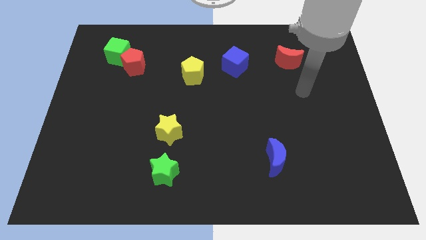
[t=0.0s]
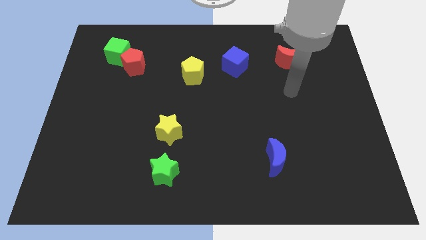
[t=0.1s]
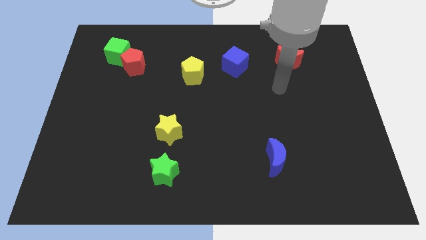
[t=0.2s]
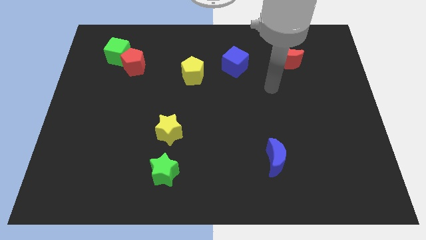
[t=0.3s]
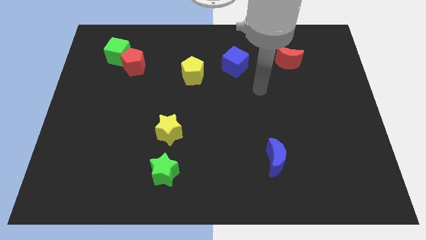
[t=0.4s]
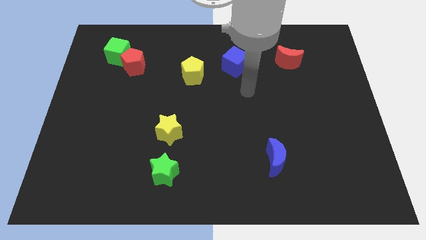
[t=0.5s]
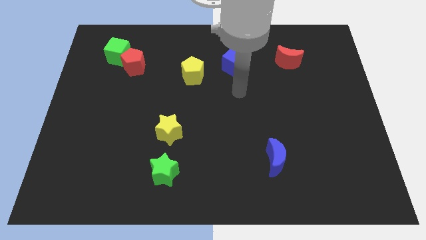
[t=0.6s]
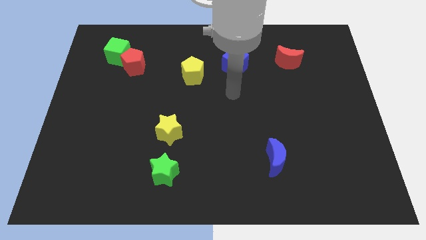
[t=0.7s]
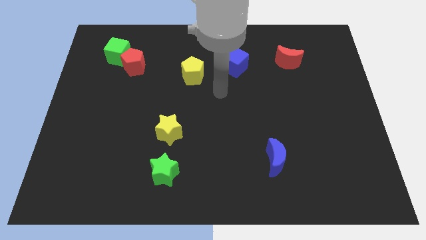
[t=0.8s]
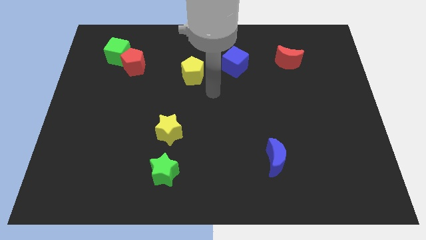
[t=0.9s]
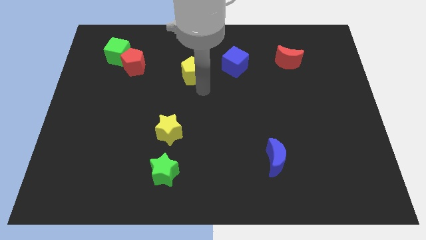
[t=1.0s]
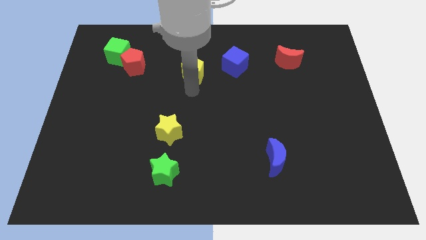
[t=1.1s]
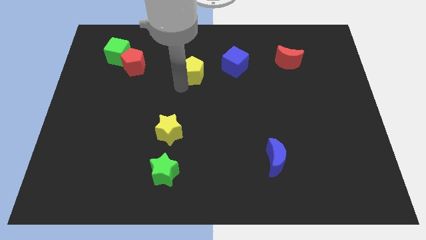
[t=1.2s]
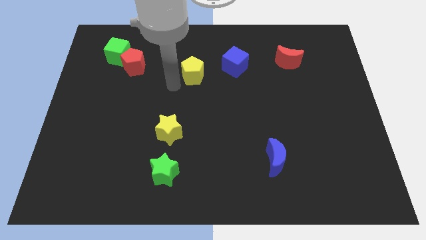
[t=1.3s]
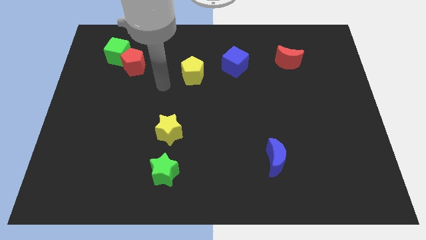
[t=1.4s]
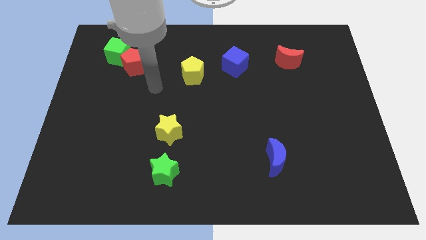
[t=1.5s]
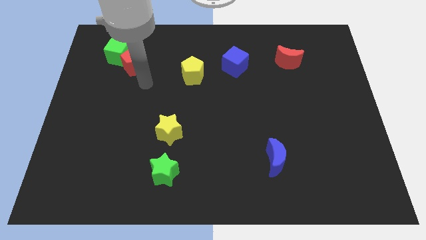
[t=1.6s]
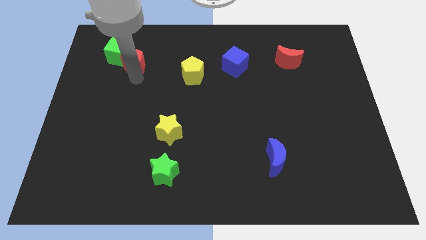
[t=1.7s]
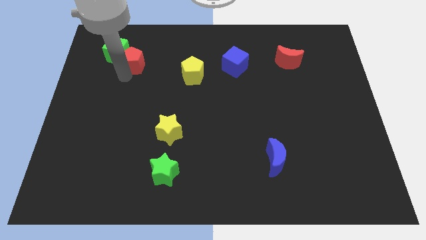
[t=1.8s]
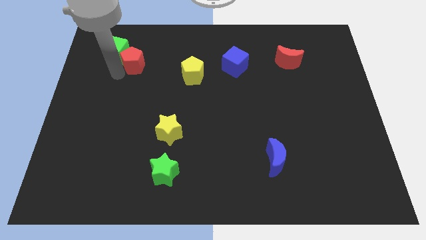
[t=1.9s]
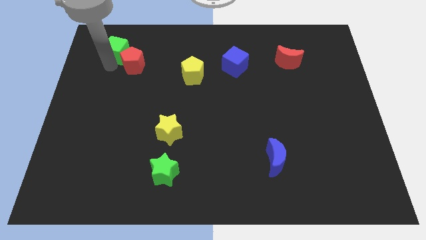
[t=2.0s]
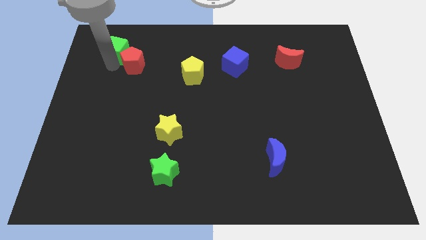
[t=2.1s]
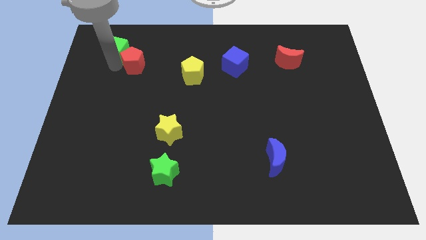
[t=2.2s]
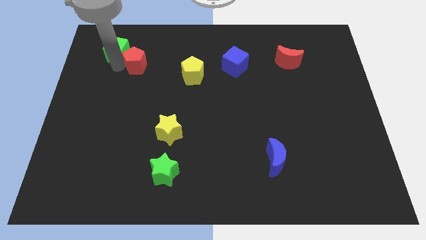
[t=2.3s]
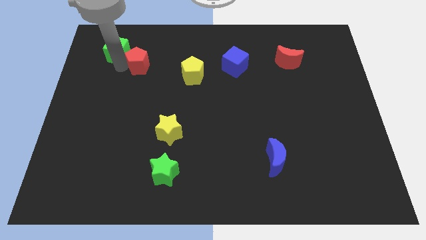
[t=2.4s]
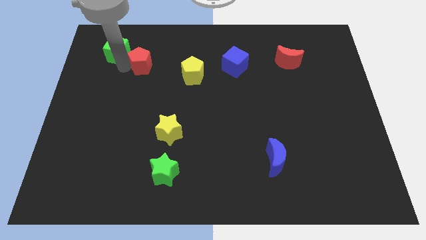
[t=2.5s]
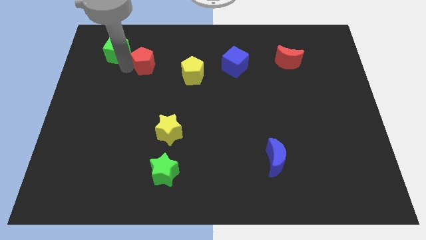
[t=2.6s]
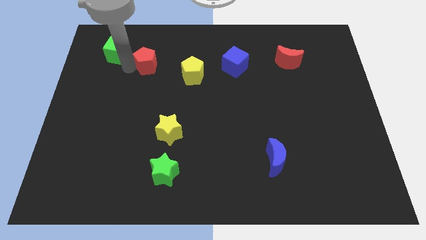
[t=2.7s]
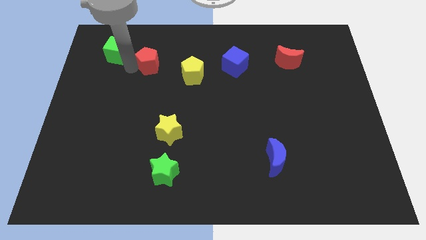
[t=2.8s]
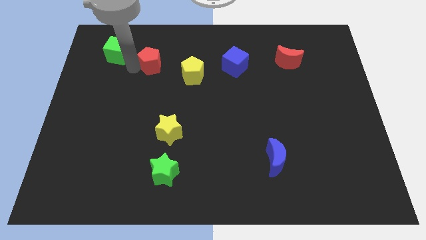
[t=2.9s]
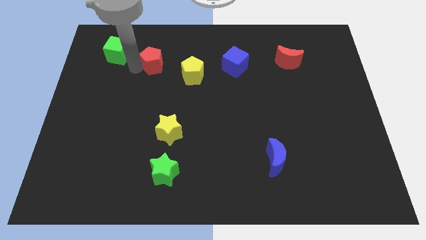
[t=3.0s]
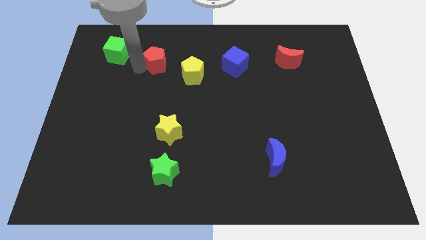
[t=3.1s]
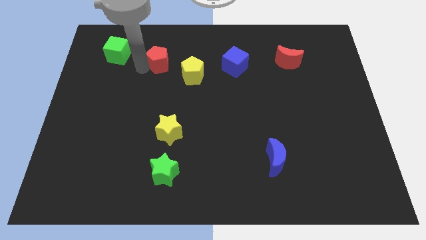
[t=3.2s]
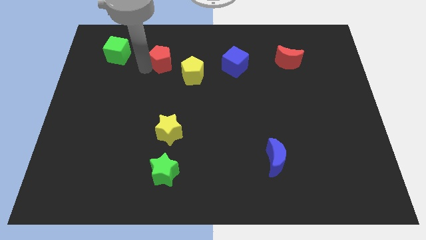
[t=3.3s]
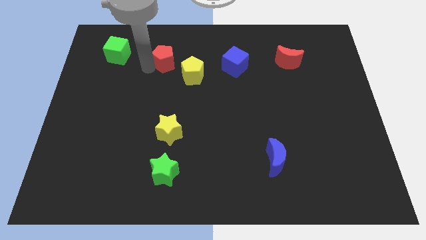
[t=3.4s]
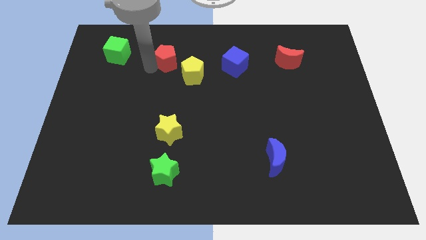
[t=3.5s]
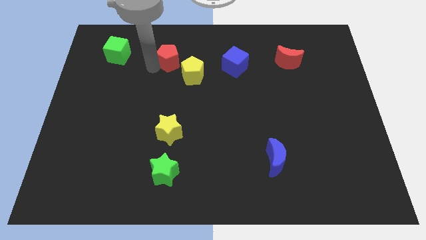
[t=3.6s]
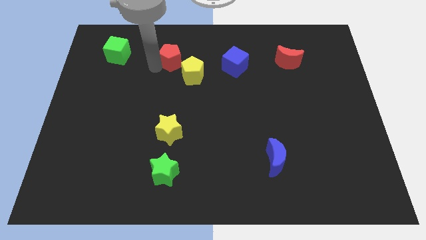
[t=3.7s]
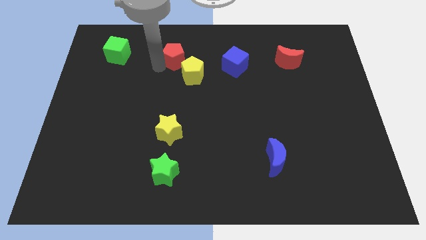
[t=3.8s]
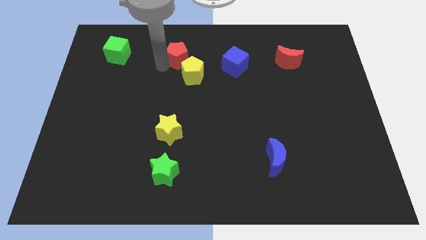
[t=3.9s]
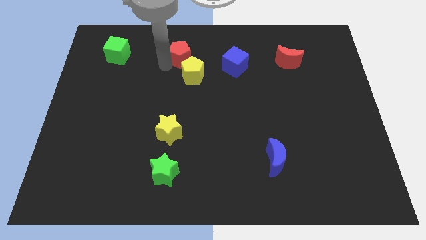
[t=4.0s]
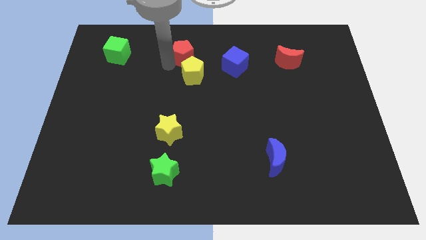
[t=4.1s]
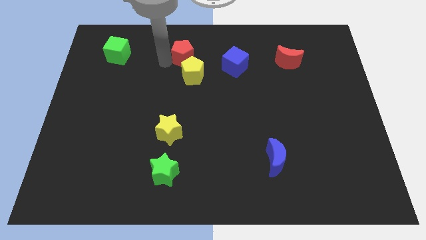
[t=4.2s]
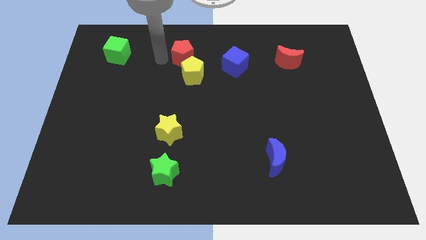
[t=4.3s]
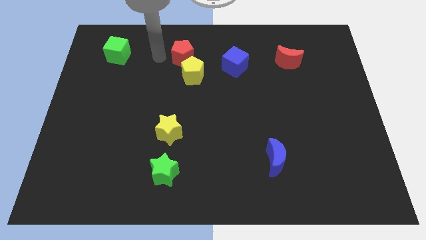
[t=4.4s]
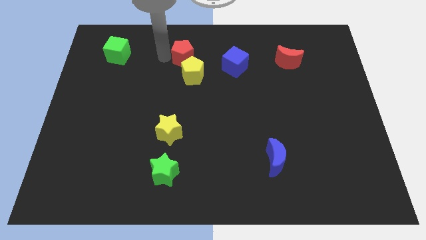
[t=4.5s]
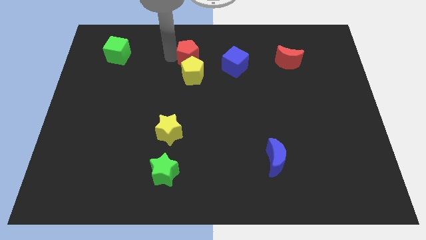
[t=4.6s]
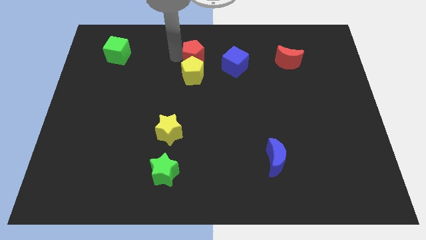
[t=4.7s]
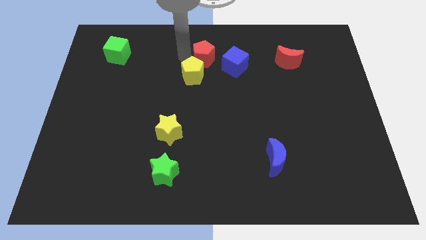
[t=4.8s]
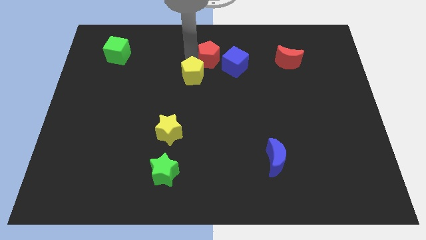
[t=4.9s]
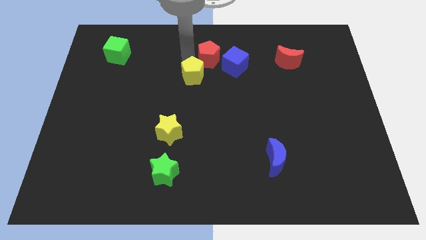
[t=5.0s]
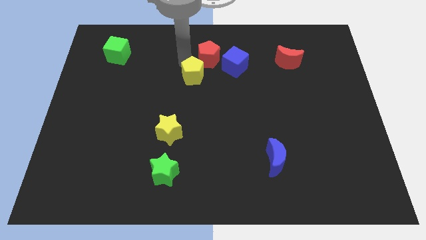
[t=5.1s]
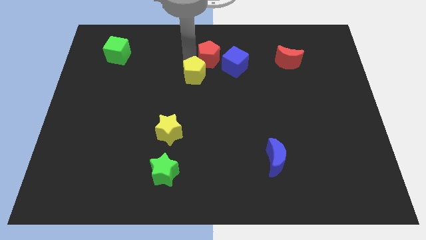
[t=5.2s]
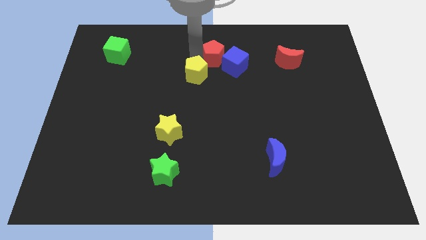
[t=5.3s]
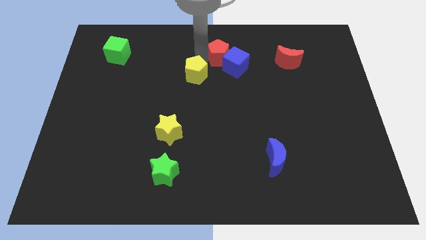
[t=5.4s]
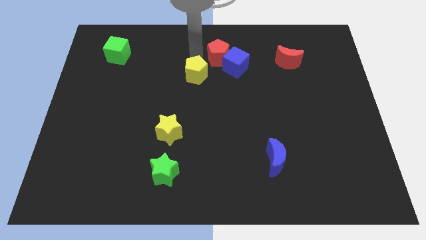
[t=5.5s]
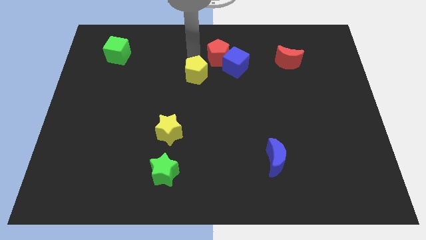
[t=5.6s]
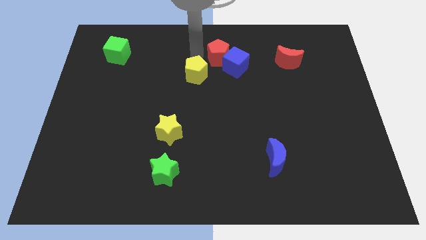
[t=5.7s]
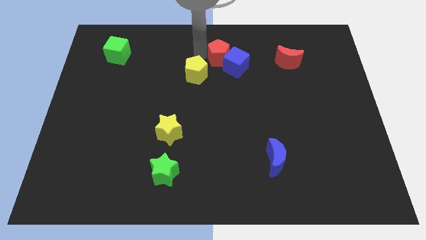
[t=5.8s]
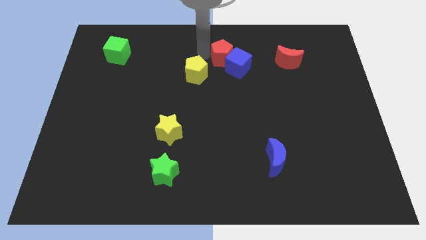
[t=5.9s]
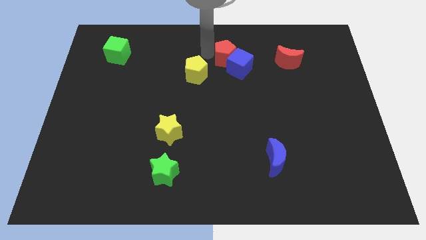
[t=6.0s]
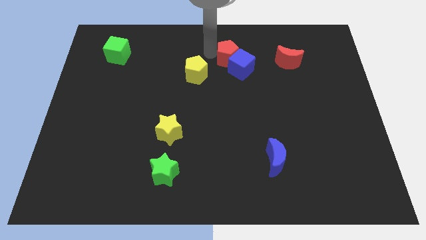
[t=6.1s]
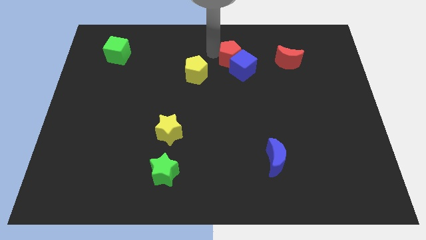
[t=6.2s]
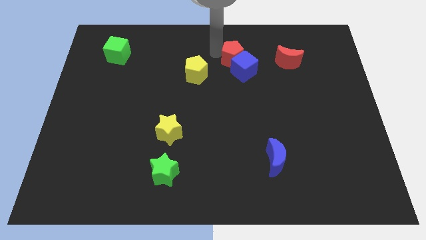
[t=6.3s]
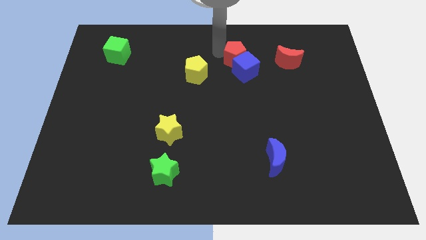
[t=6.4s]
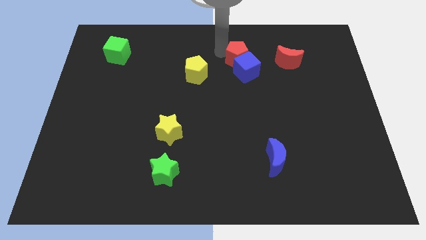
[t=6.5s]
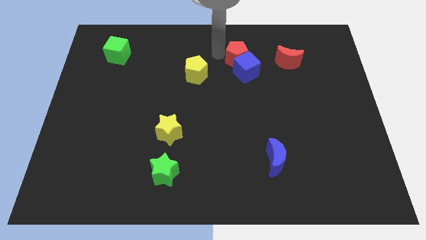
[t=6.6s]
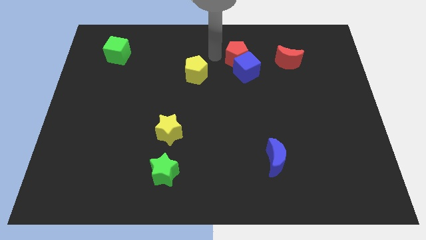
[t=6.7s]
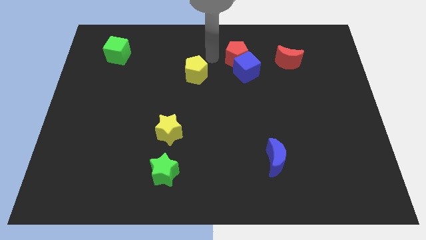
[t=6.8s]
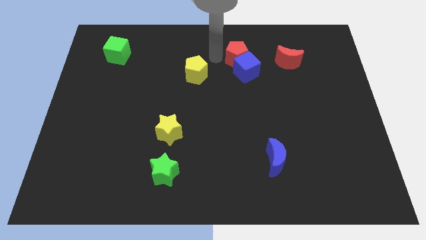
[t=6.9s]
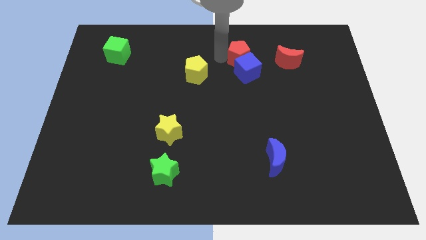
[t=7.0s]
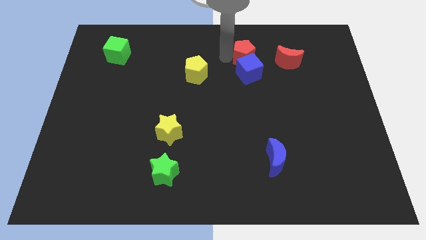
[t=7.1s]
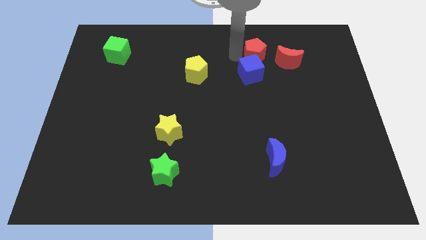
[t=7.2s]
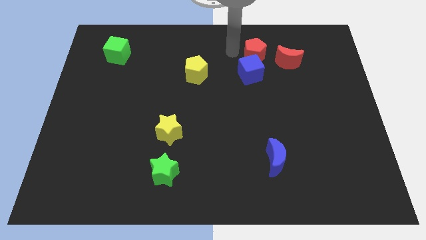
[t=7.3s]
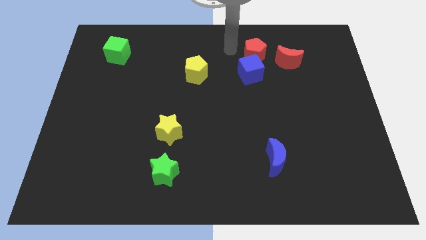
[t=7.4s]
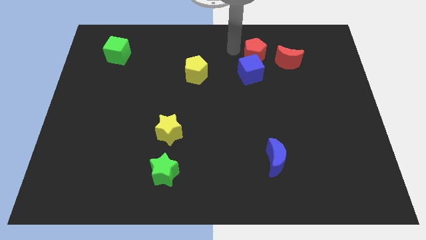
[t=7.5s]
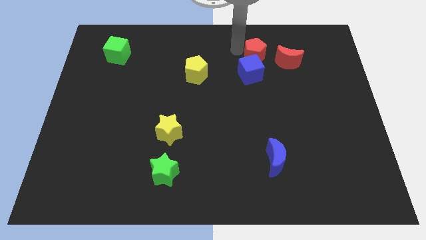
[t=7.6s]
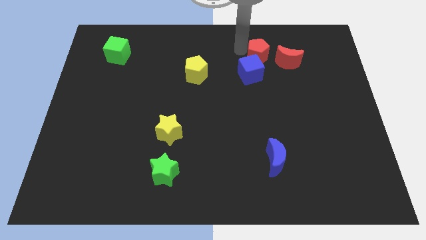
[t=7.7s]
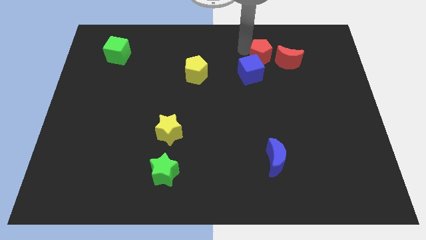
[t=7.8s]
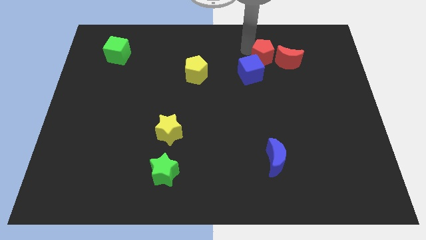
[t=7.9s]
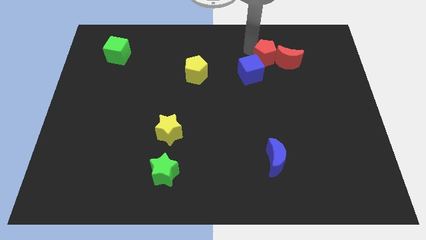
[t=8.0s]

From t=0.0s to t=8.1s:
slide the red pentagon next to the red moon

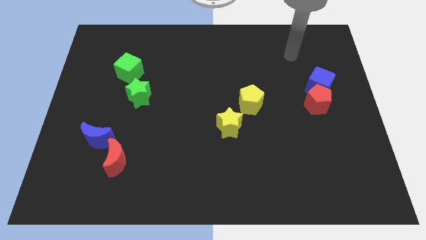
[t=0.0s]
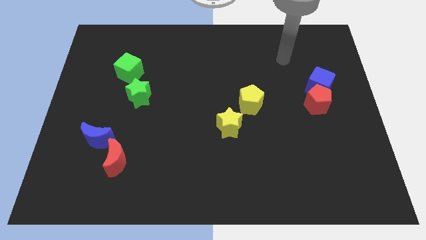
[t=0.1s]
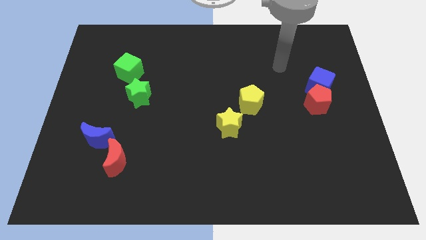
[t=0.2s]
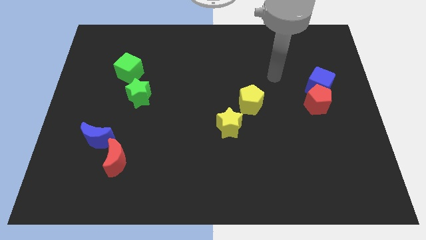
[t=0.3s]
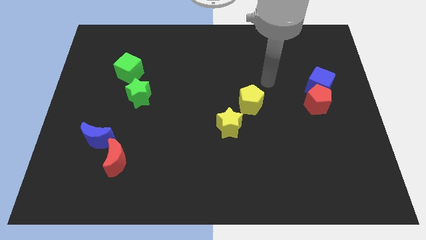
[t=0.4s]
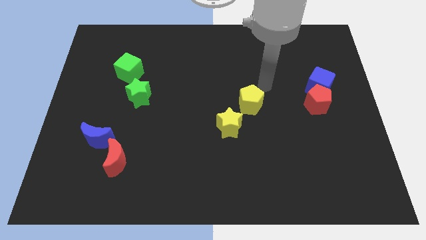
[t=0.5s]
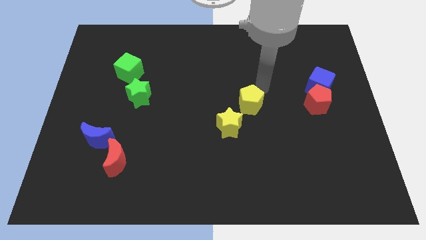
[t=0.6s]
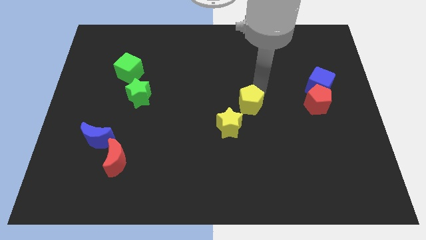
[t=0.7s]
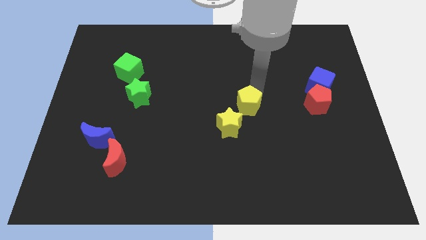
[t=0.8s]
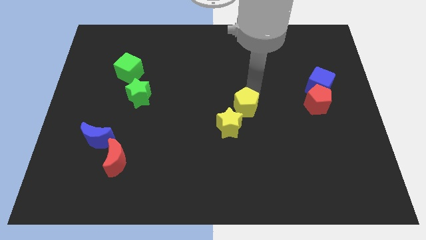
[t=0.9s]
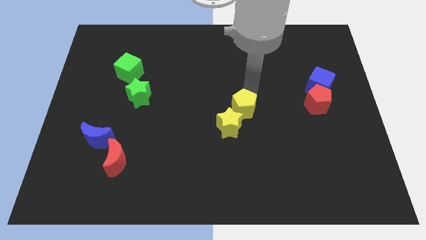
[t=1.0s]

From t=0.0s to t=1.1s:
push the yellow pentagon close to the yellow star
